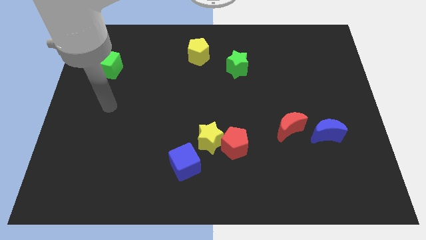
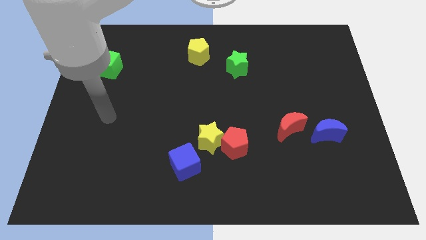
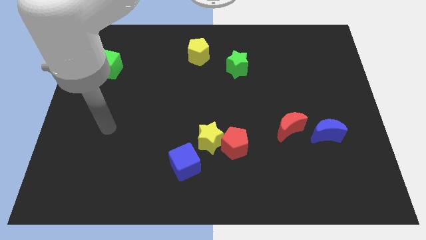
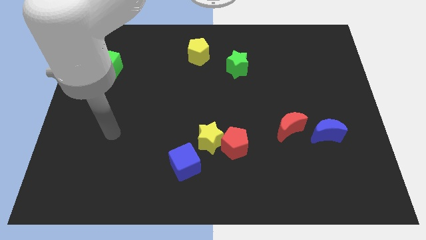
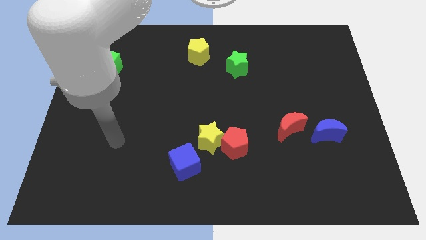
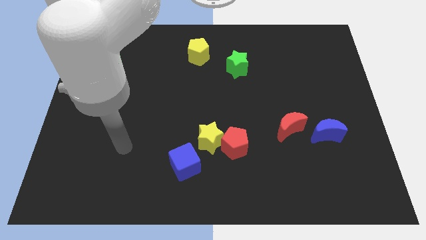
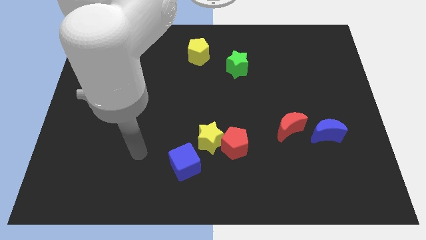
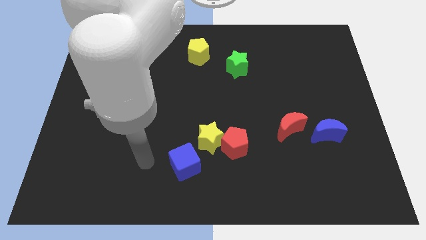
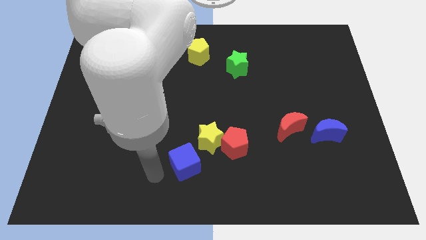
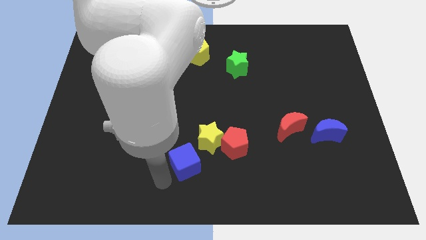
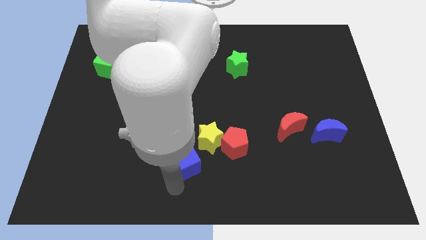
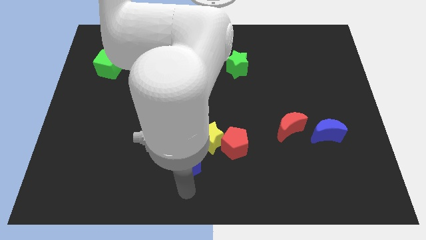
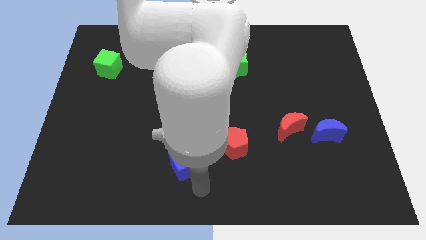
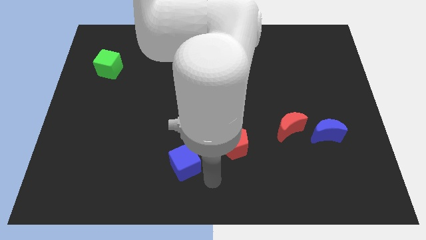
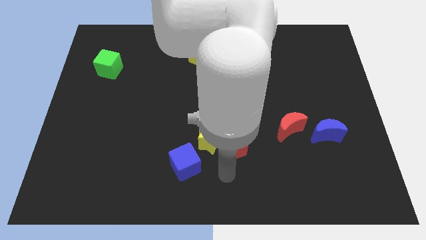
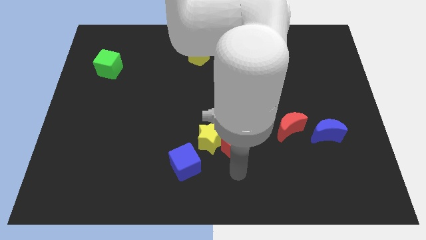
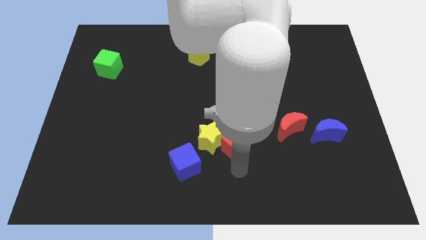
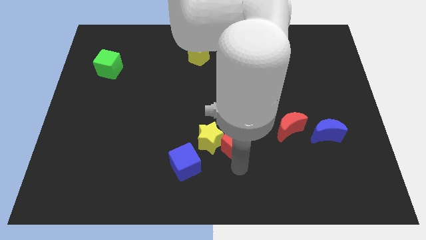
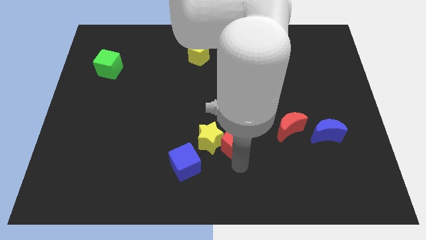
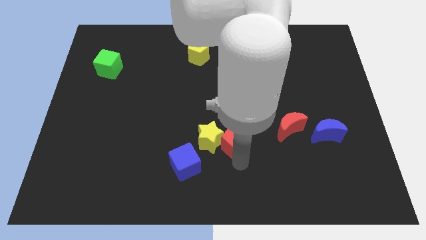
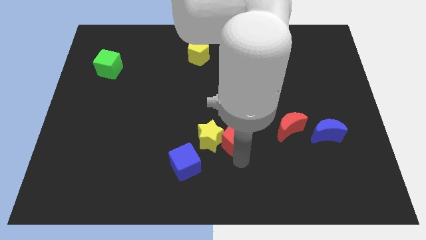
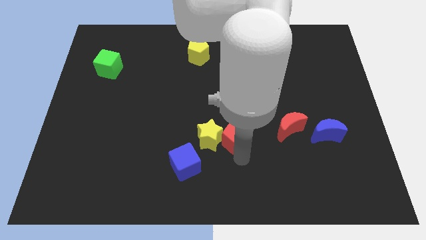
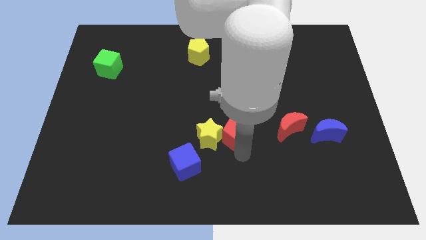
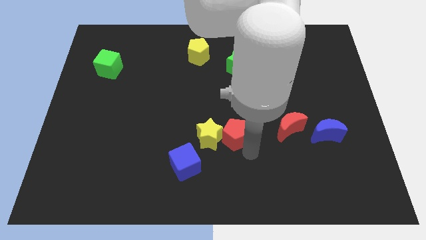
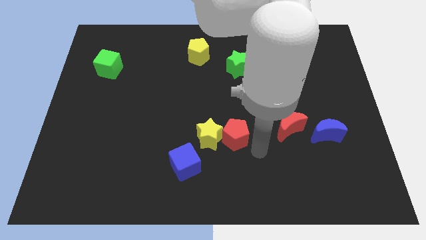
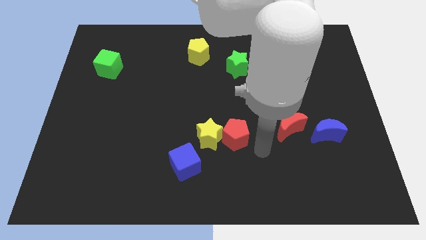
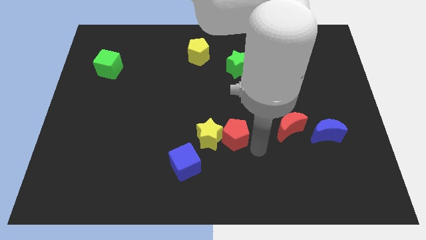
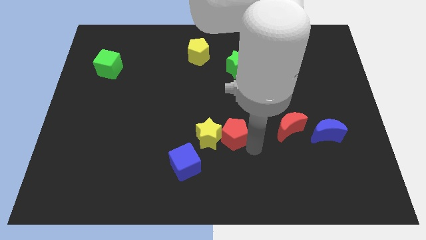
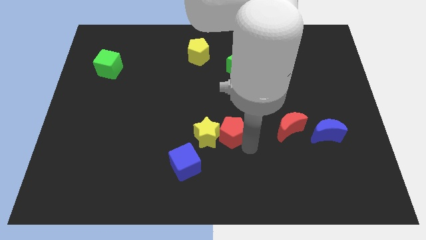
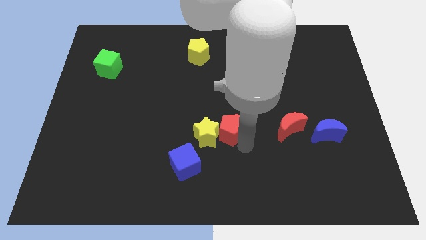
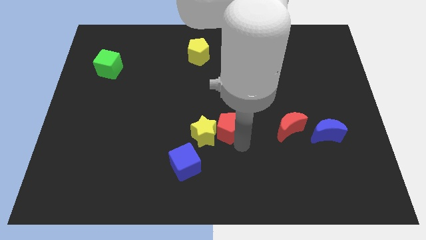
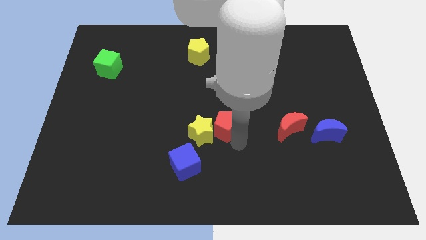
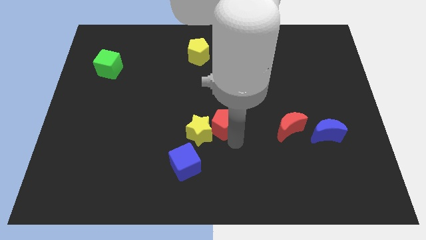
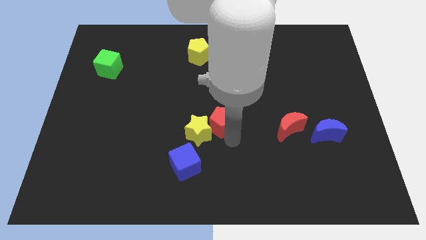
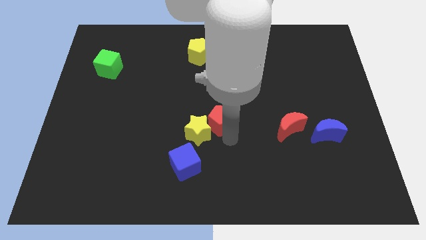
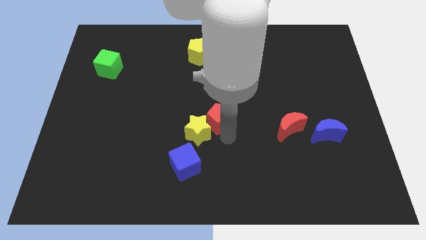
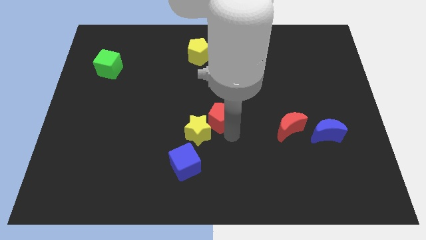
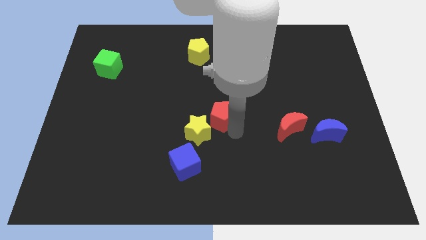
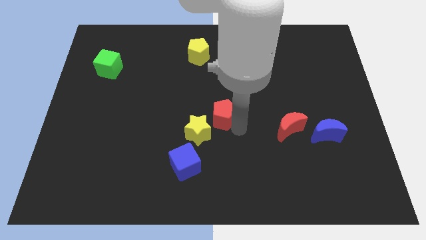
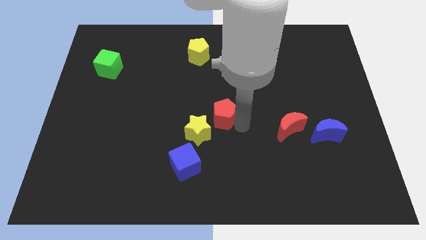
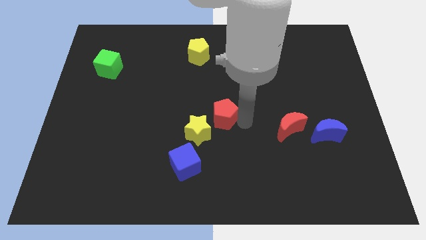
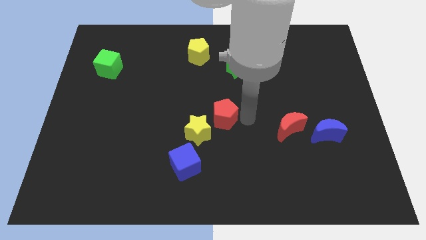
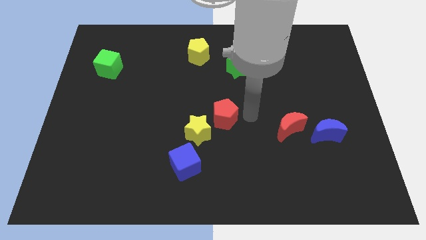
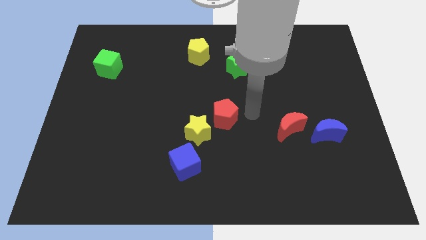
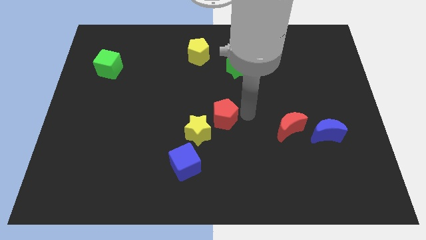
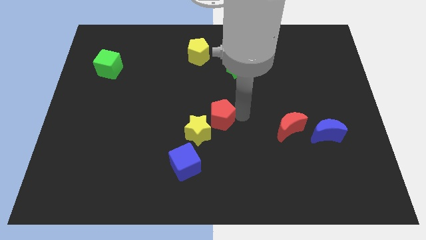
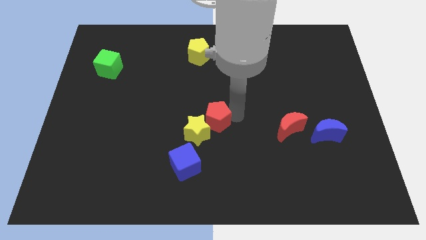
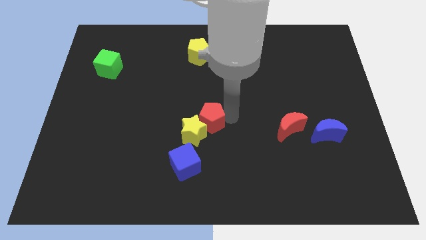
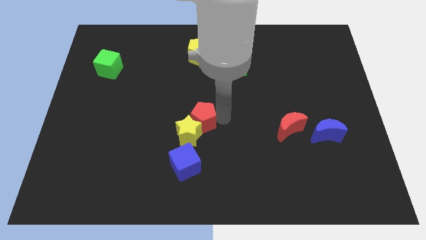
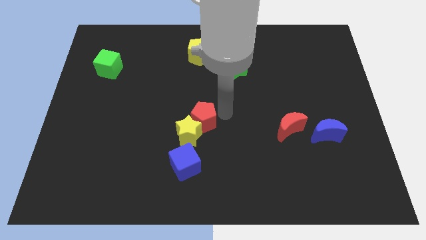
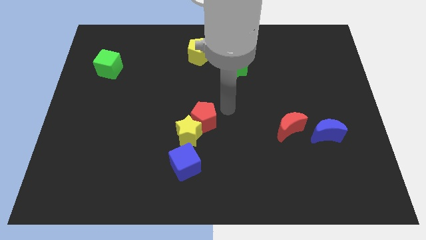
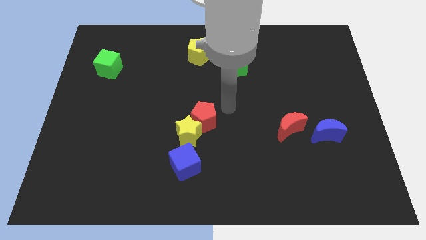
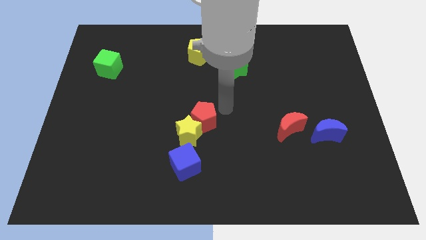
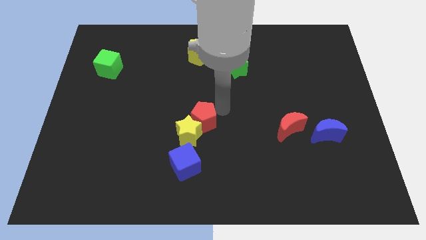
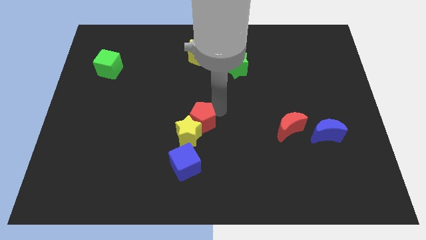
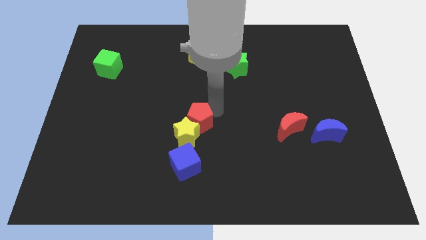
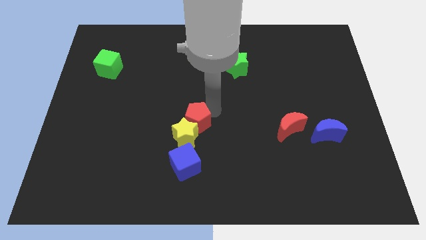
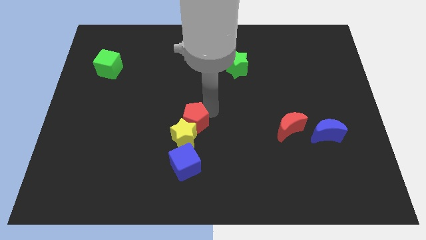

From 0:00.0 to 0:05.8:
push the red pentagon to the left a little

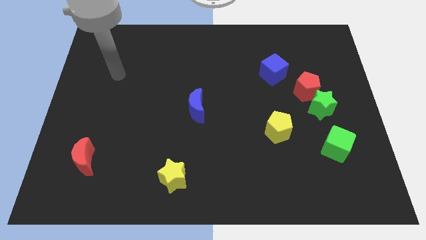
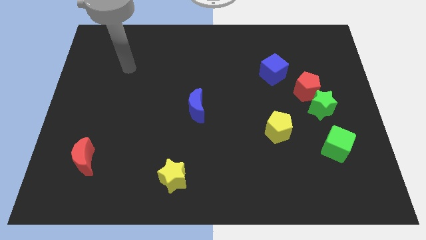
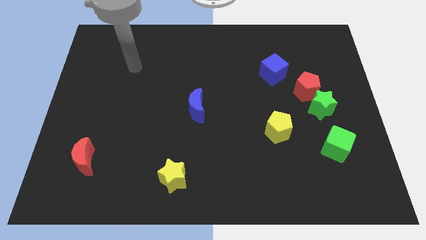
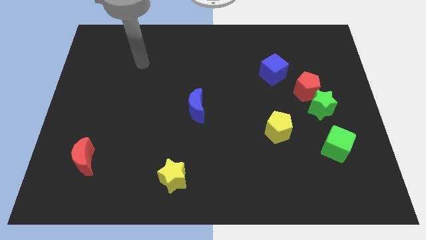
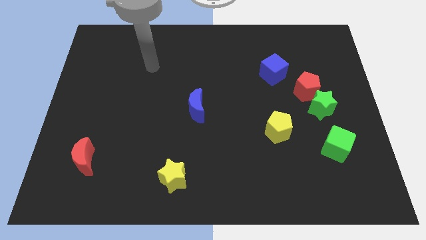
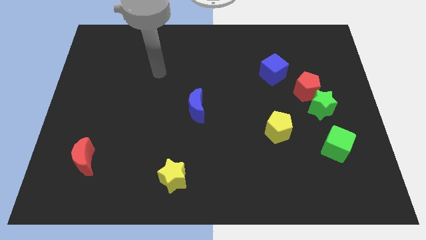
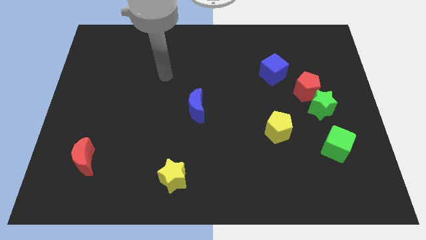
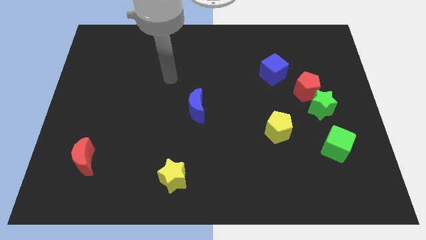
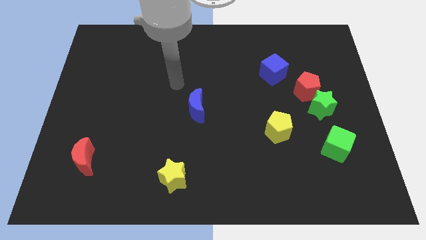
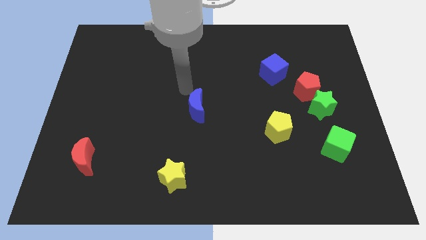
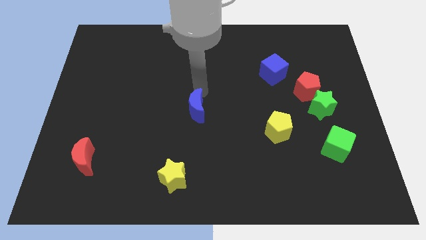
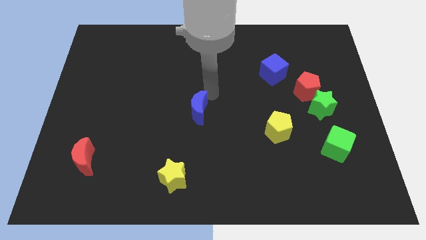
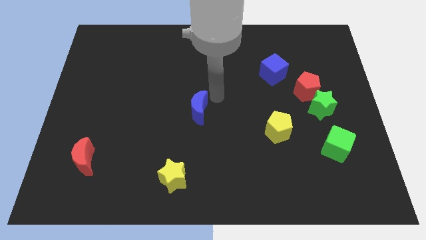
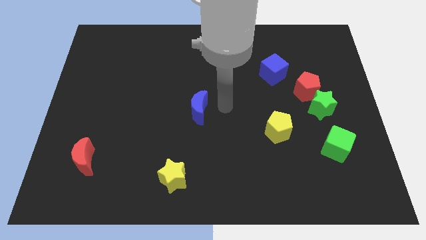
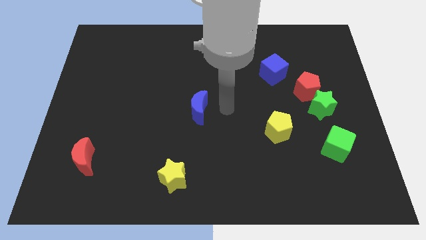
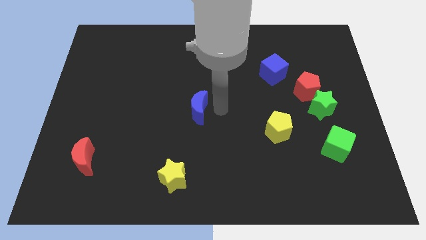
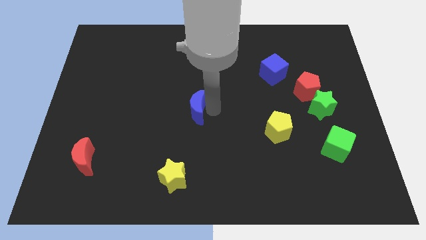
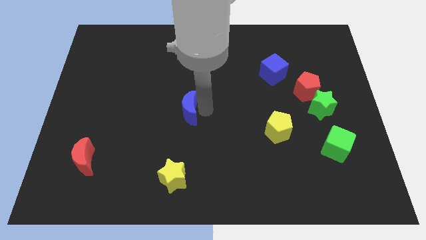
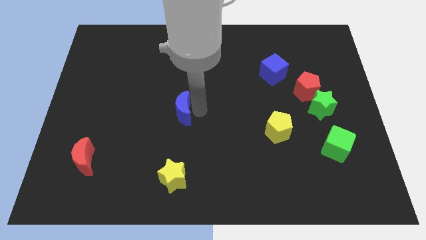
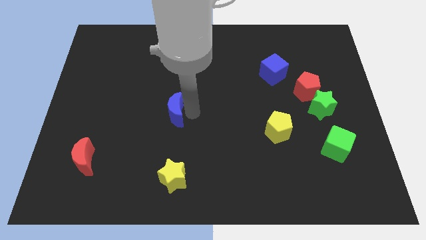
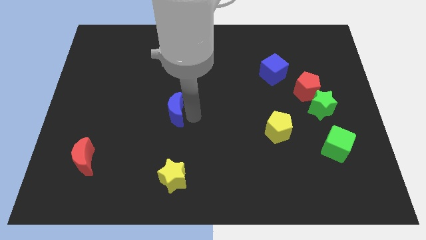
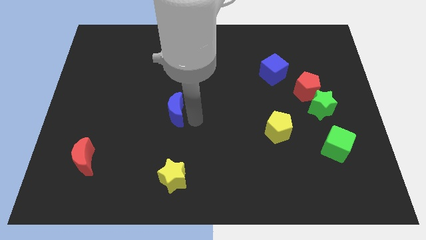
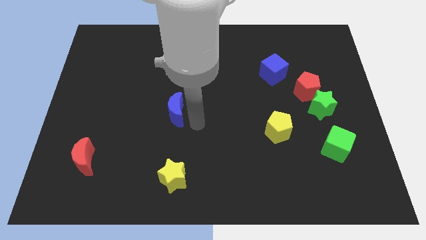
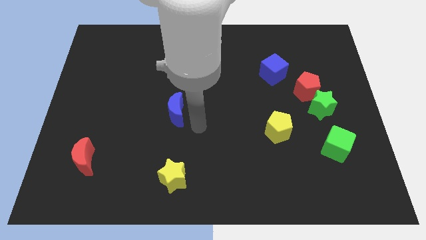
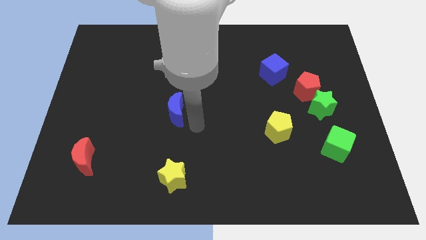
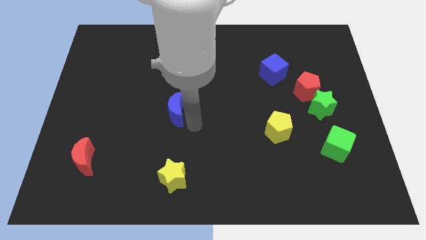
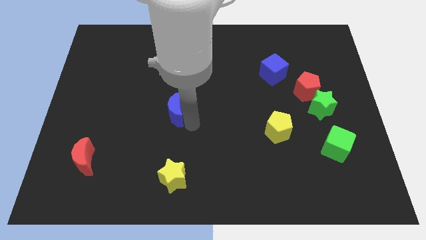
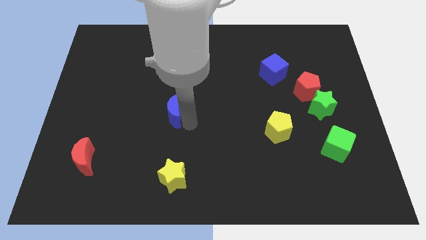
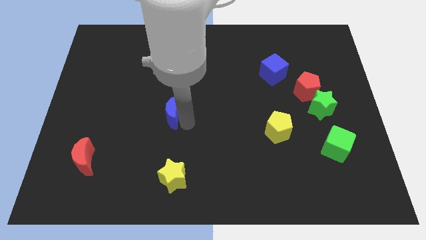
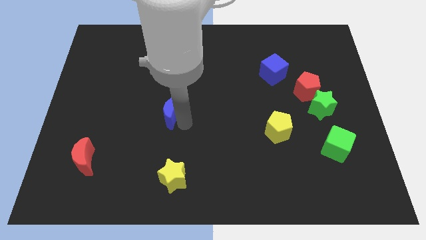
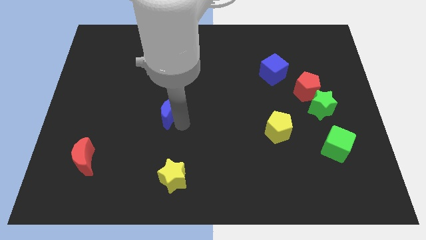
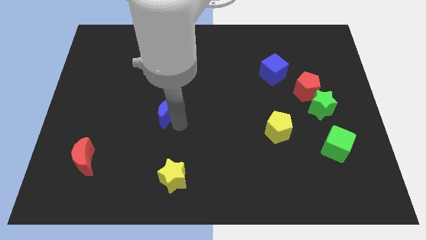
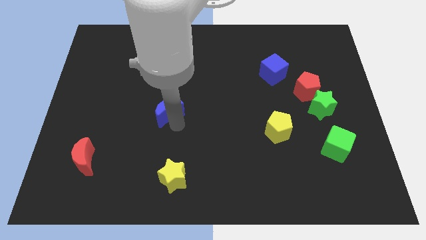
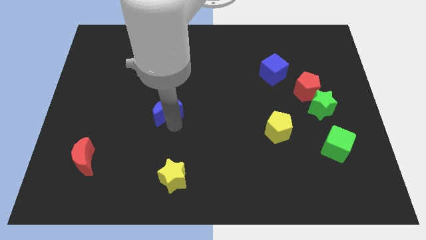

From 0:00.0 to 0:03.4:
push the blue moon to the left somewhat
